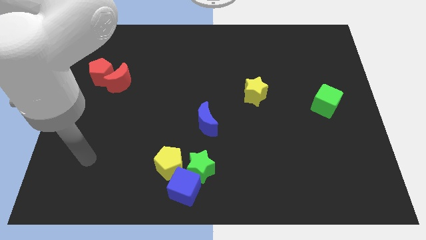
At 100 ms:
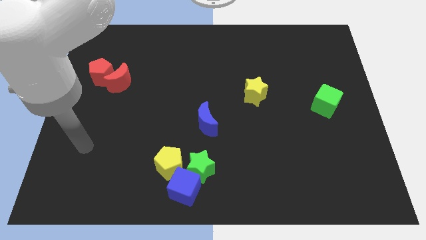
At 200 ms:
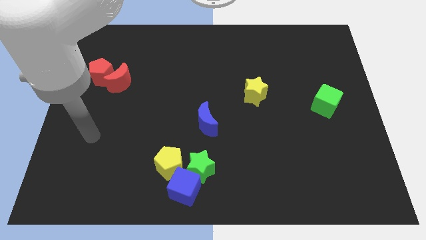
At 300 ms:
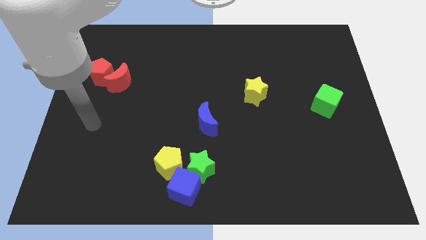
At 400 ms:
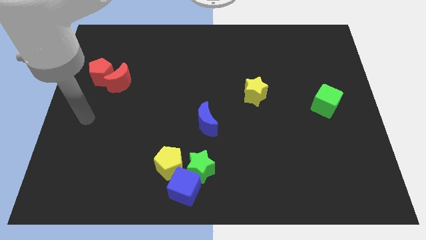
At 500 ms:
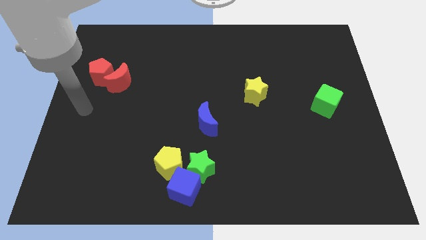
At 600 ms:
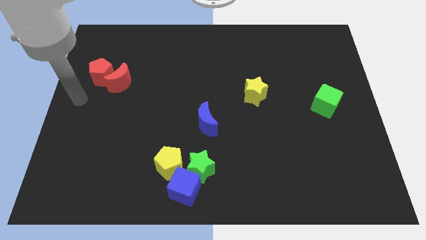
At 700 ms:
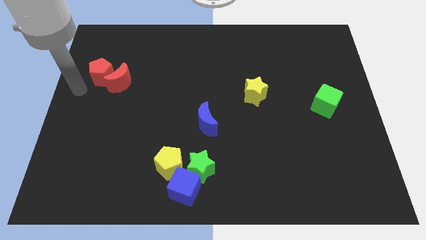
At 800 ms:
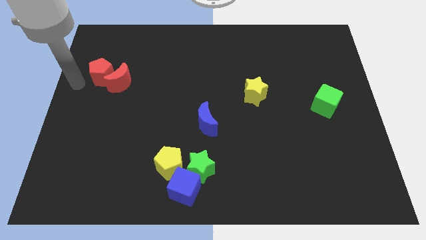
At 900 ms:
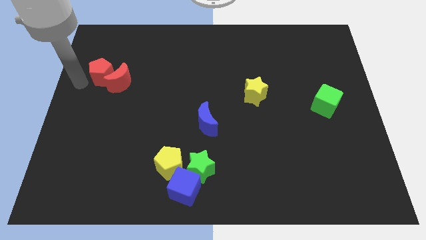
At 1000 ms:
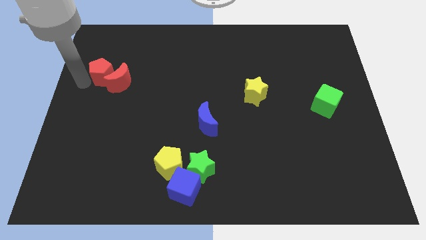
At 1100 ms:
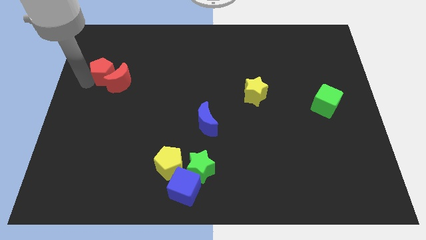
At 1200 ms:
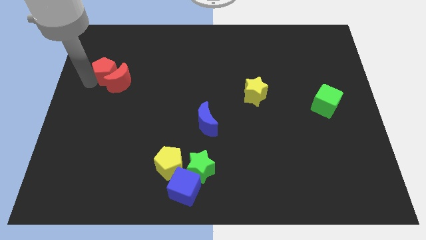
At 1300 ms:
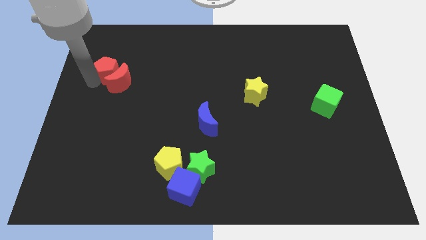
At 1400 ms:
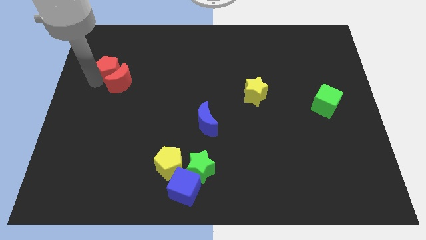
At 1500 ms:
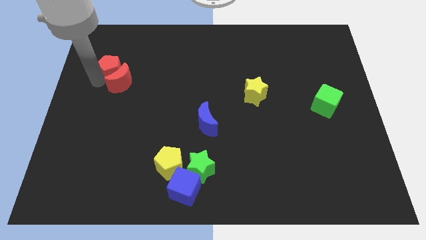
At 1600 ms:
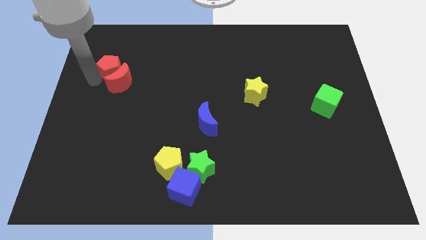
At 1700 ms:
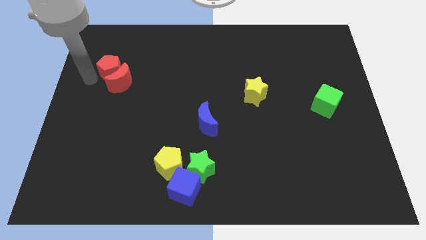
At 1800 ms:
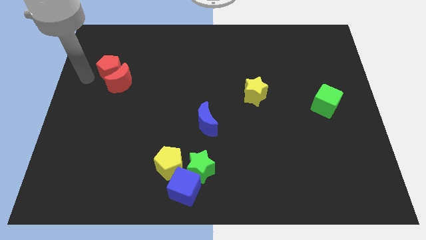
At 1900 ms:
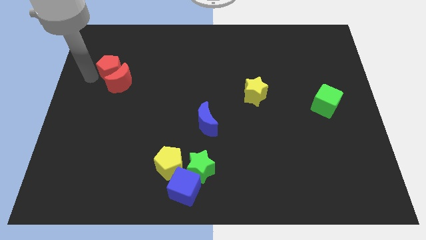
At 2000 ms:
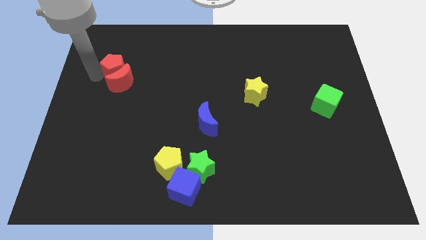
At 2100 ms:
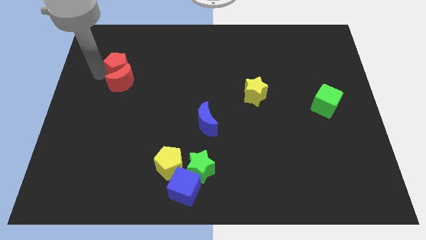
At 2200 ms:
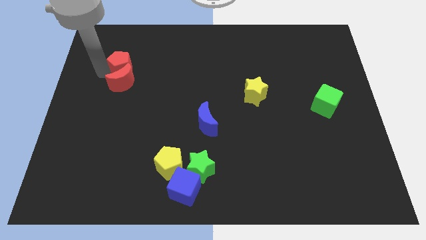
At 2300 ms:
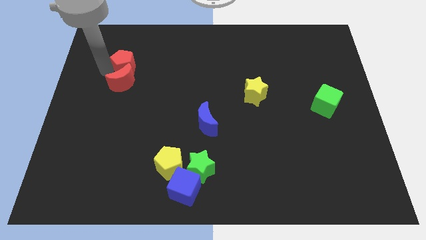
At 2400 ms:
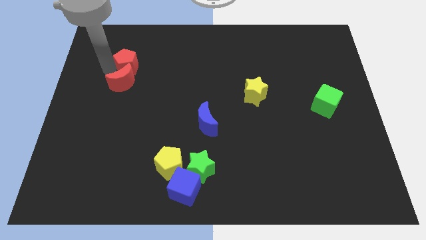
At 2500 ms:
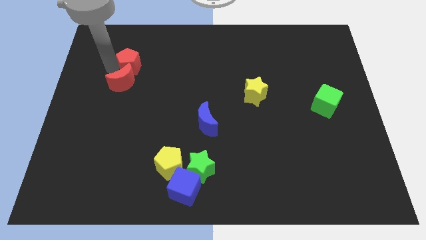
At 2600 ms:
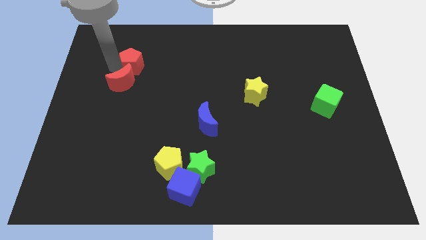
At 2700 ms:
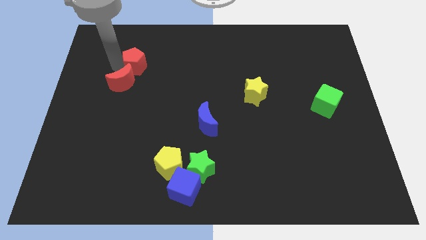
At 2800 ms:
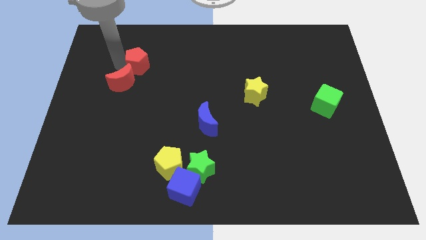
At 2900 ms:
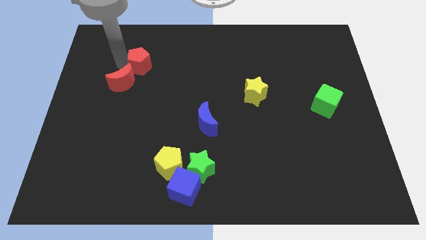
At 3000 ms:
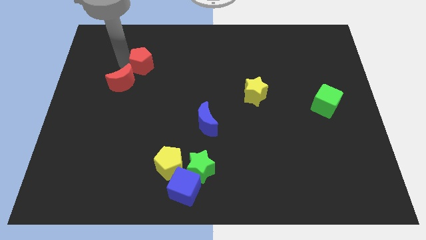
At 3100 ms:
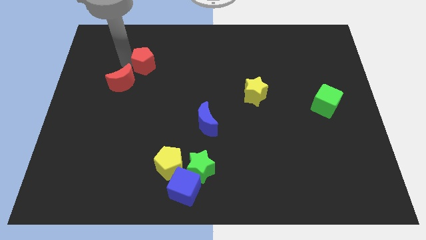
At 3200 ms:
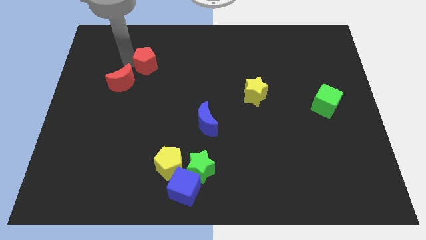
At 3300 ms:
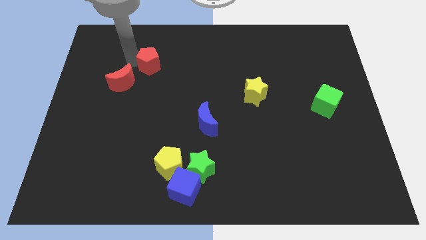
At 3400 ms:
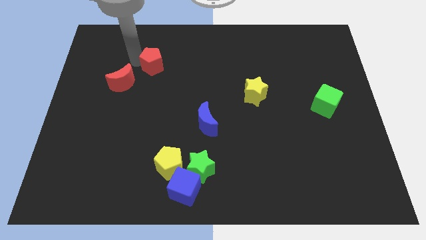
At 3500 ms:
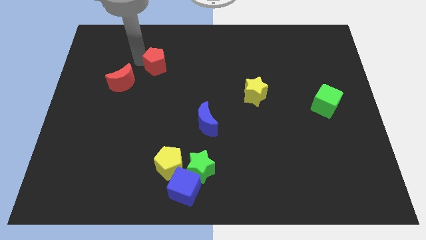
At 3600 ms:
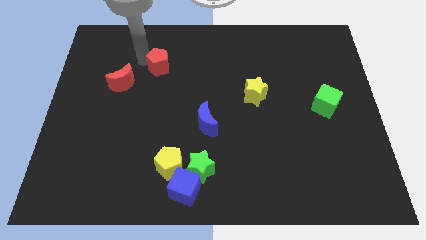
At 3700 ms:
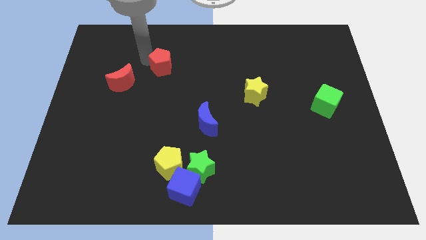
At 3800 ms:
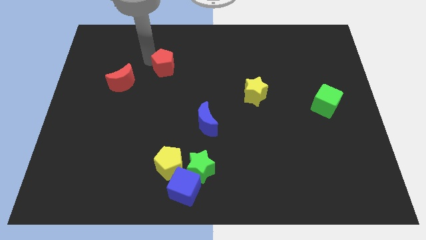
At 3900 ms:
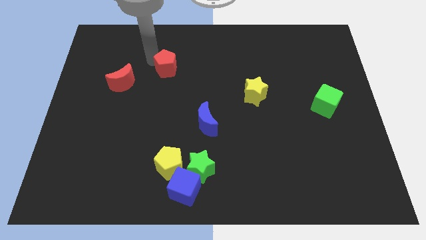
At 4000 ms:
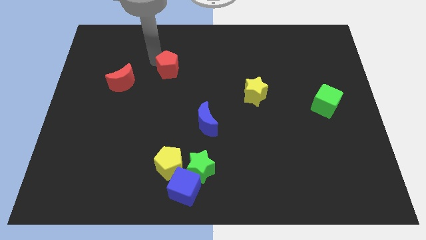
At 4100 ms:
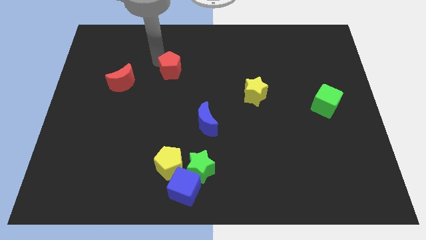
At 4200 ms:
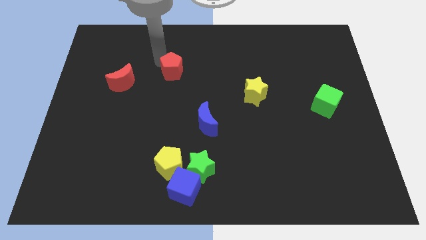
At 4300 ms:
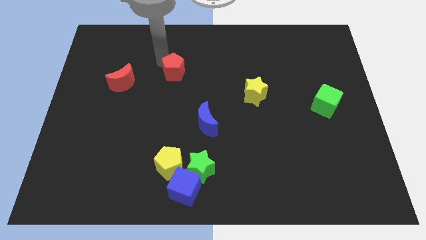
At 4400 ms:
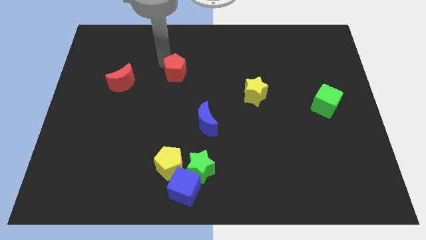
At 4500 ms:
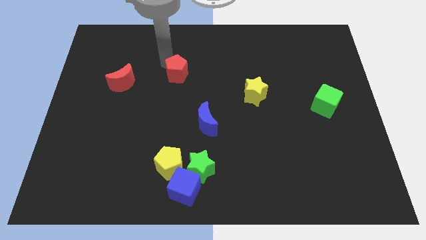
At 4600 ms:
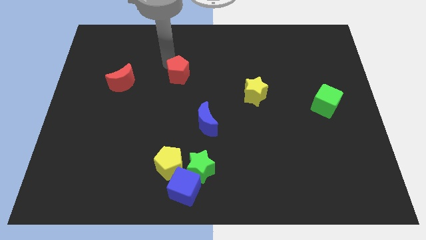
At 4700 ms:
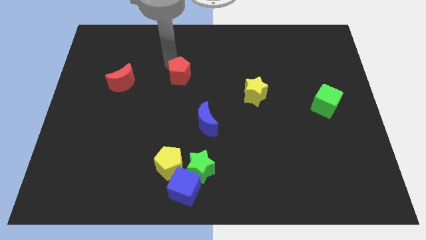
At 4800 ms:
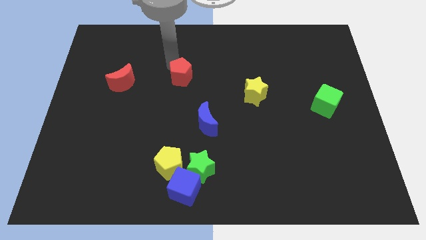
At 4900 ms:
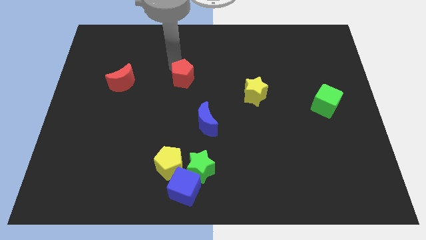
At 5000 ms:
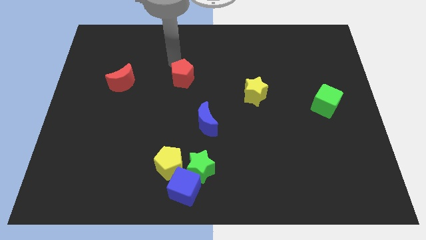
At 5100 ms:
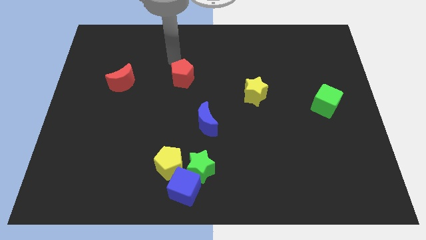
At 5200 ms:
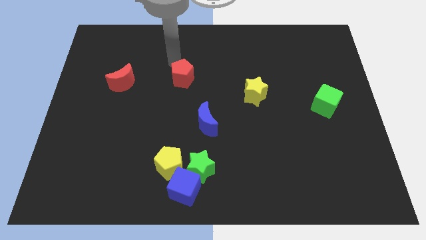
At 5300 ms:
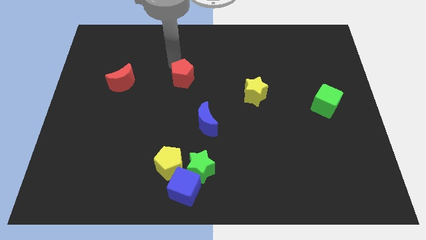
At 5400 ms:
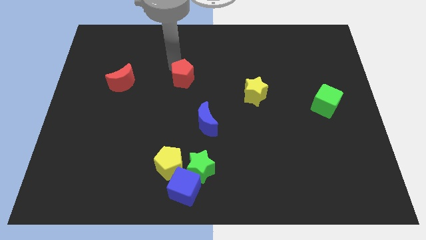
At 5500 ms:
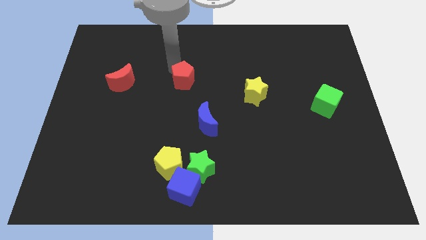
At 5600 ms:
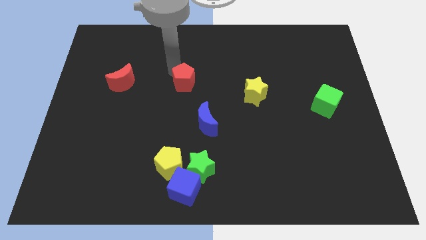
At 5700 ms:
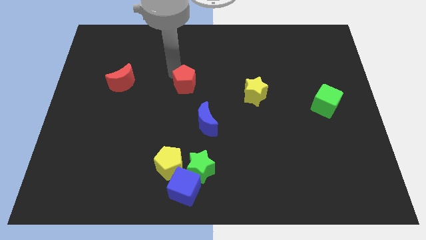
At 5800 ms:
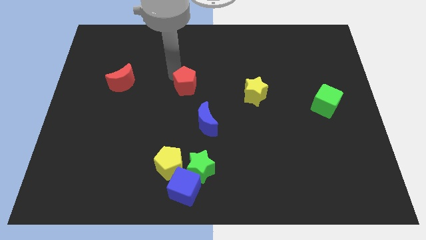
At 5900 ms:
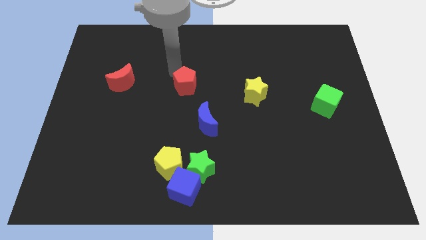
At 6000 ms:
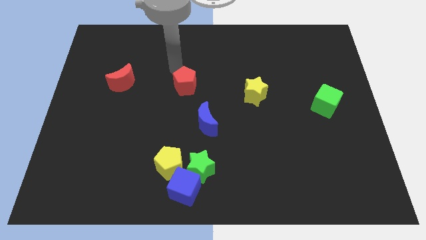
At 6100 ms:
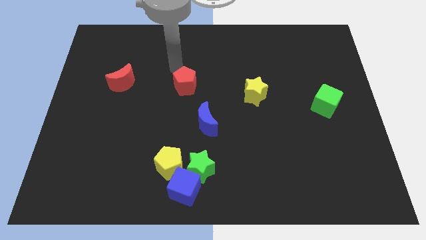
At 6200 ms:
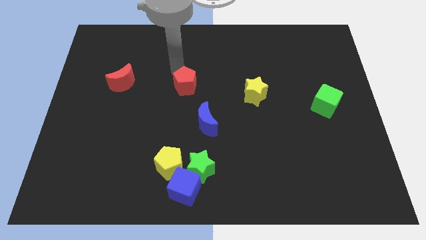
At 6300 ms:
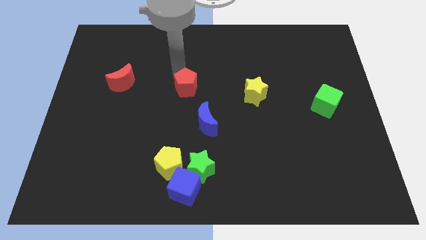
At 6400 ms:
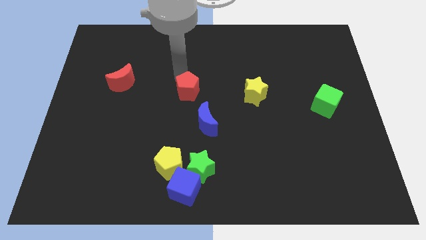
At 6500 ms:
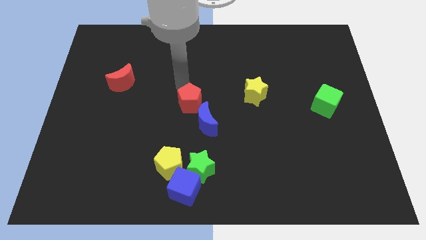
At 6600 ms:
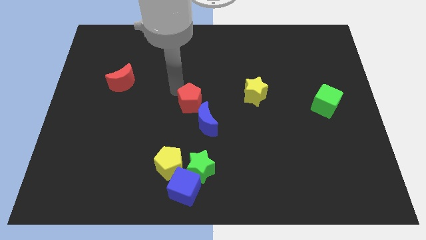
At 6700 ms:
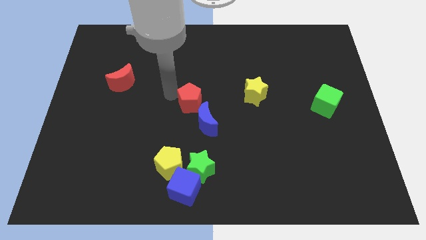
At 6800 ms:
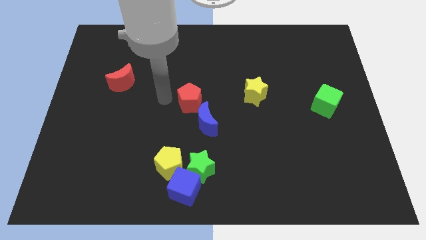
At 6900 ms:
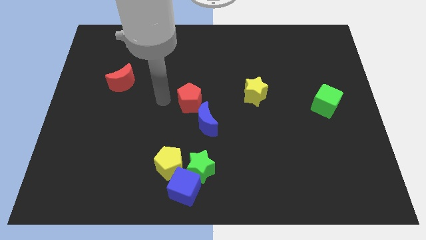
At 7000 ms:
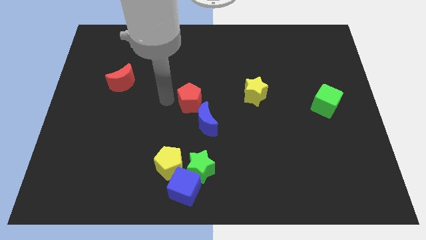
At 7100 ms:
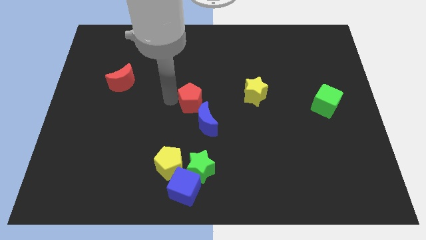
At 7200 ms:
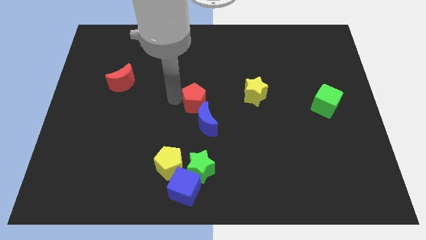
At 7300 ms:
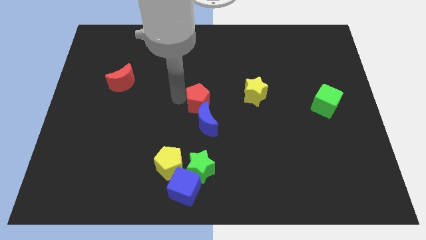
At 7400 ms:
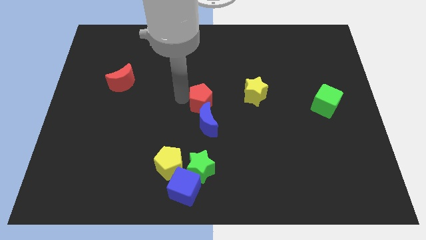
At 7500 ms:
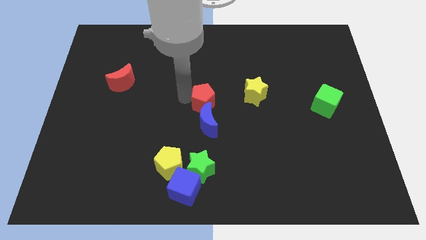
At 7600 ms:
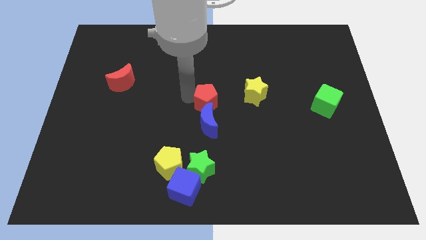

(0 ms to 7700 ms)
put the red pentagon diagonally up and to the right of the blue moon
